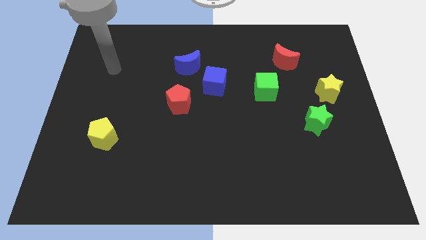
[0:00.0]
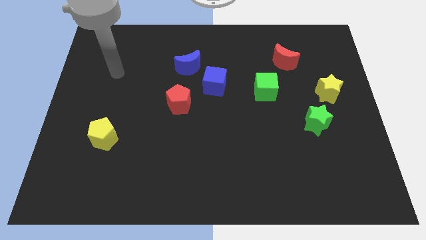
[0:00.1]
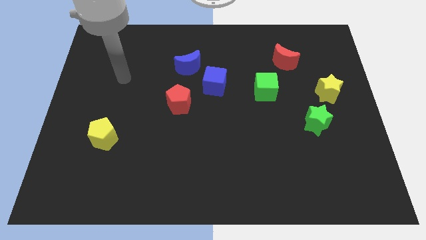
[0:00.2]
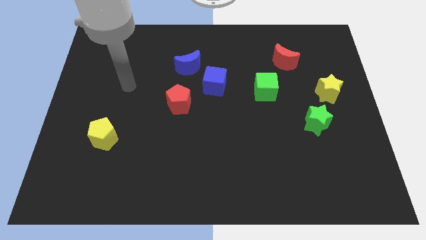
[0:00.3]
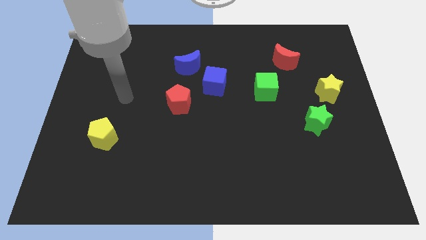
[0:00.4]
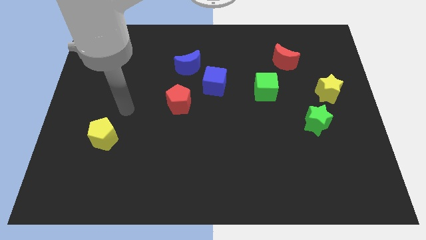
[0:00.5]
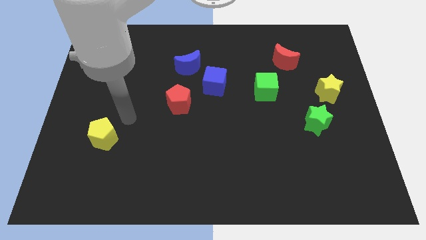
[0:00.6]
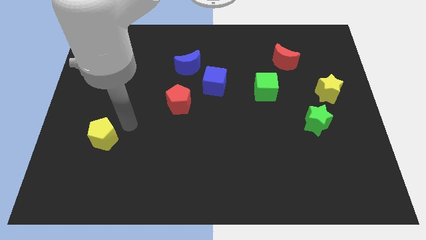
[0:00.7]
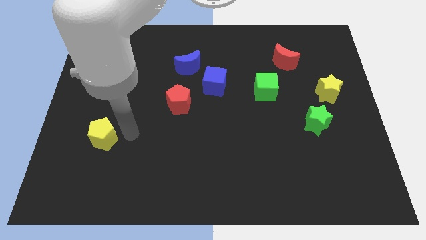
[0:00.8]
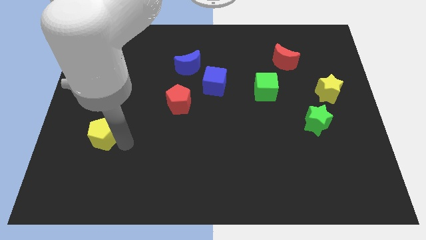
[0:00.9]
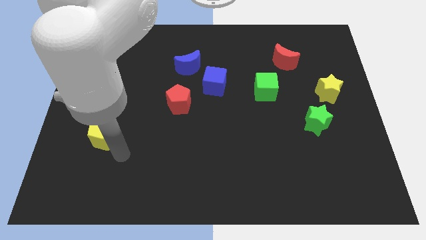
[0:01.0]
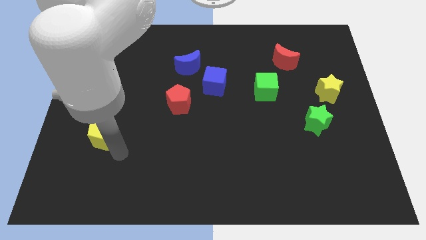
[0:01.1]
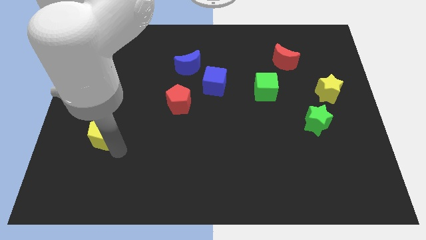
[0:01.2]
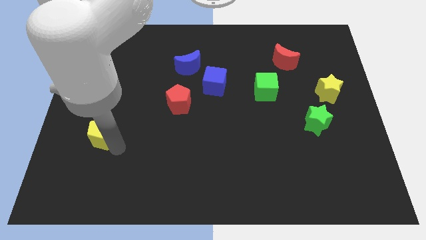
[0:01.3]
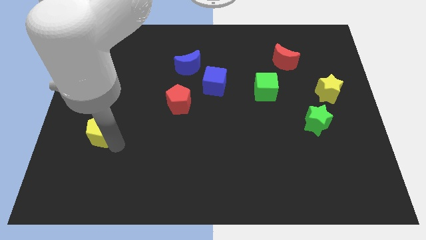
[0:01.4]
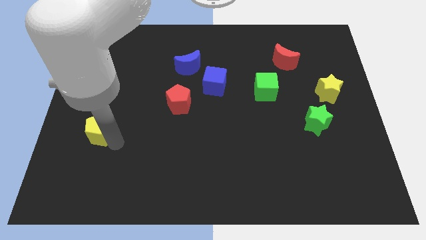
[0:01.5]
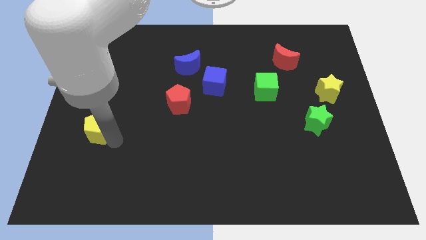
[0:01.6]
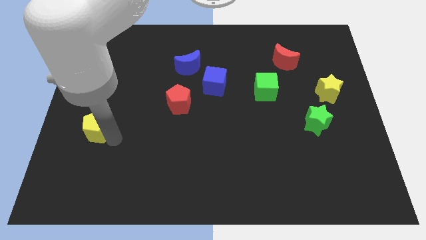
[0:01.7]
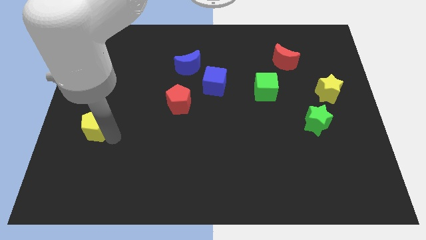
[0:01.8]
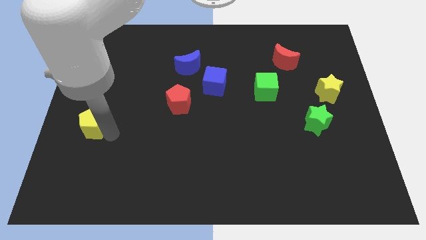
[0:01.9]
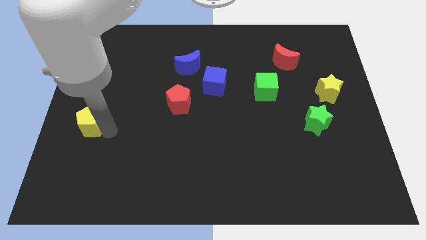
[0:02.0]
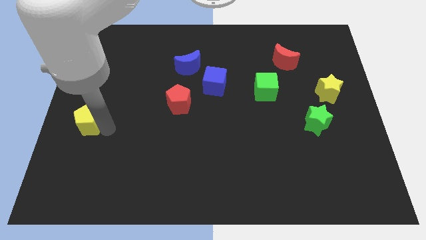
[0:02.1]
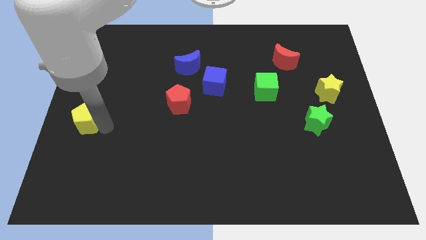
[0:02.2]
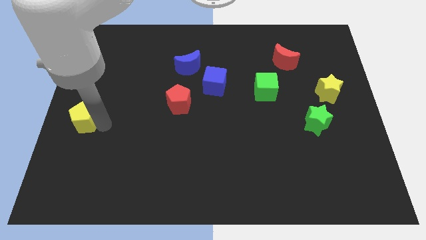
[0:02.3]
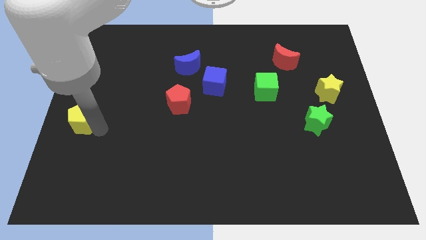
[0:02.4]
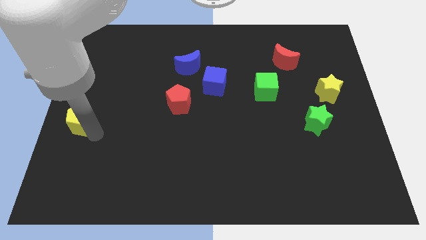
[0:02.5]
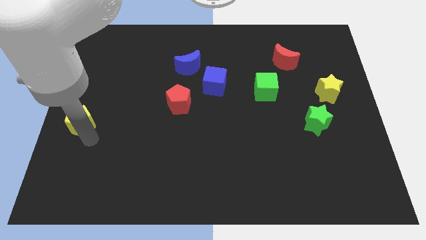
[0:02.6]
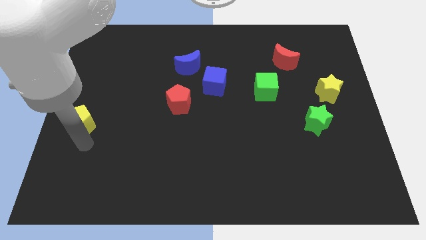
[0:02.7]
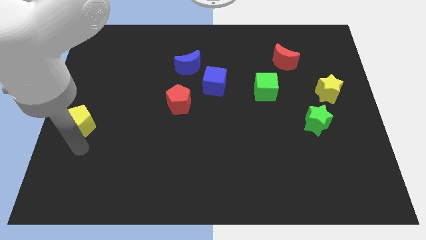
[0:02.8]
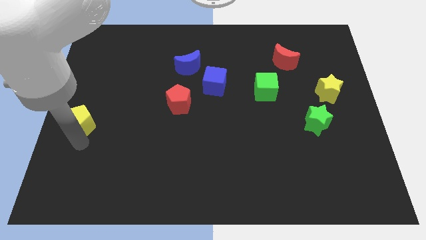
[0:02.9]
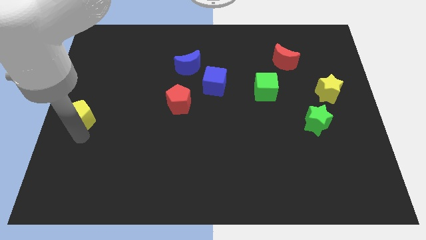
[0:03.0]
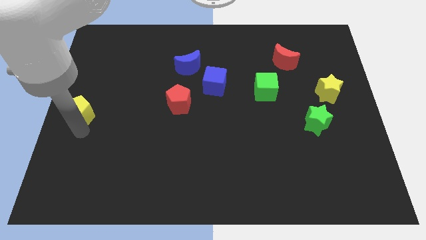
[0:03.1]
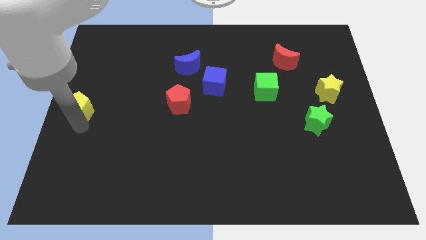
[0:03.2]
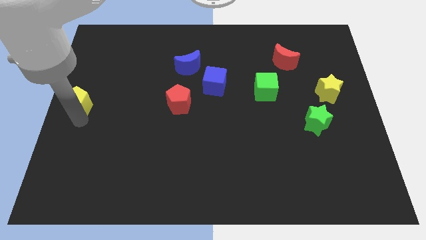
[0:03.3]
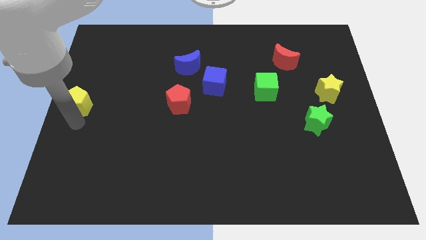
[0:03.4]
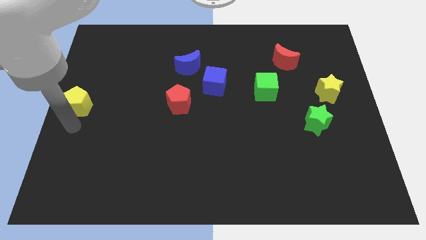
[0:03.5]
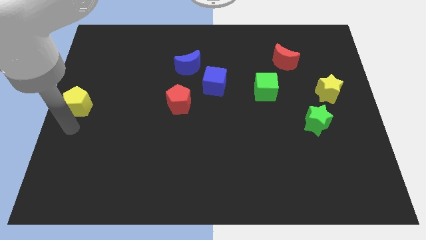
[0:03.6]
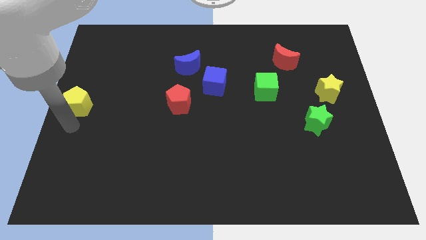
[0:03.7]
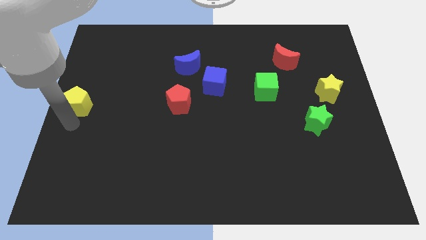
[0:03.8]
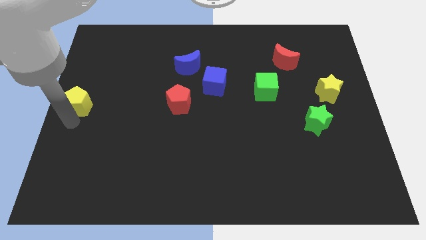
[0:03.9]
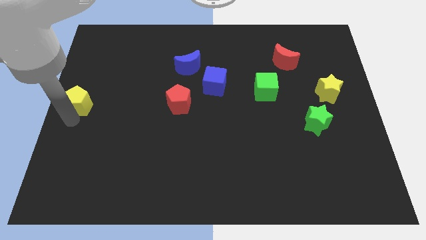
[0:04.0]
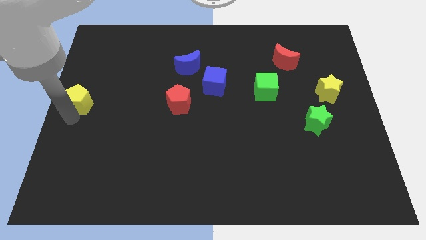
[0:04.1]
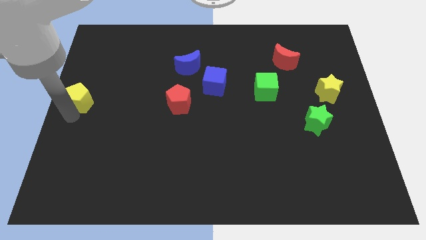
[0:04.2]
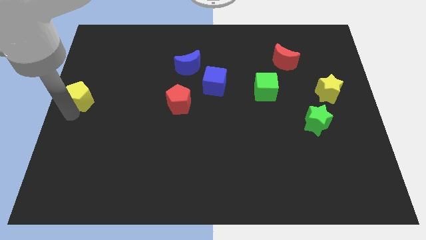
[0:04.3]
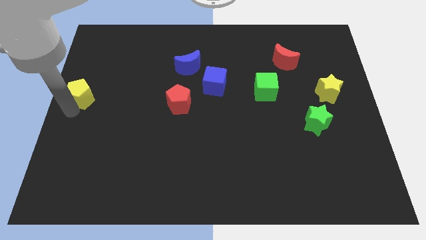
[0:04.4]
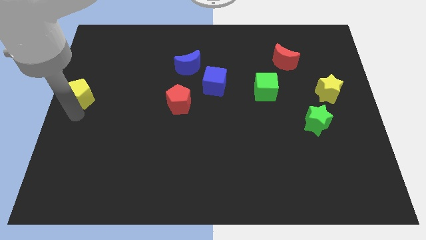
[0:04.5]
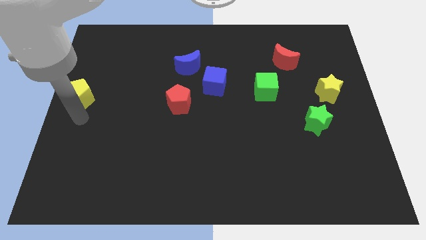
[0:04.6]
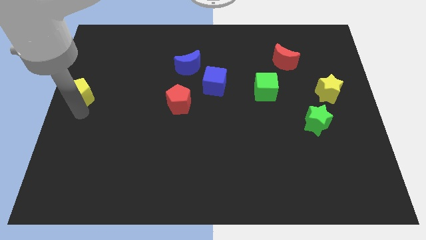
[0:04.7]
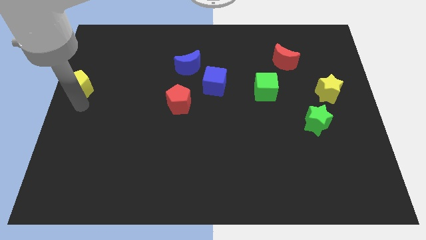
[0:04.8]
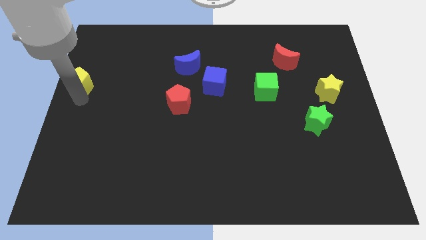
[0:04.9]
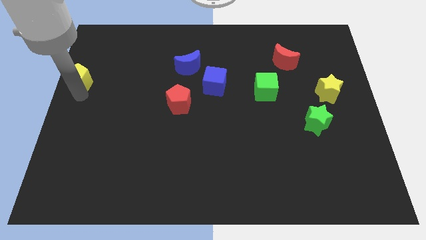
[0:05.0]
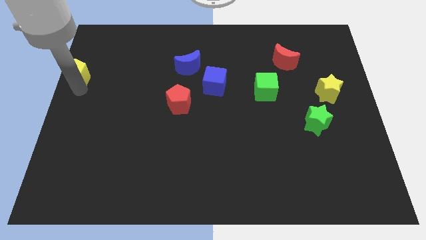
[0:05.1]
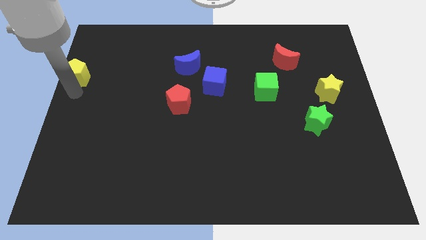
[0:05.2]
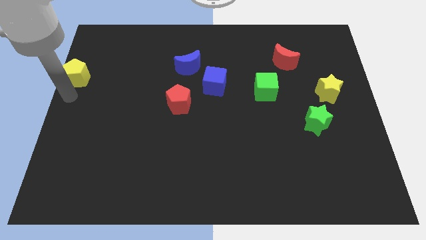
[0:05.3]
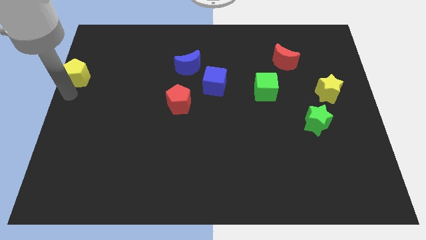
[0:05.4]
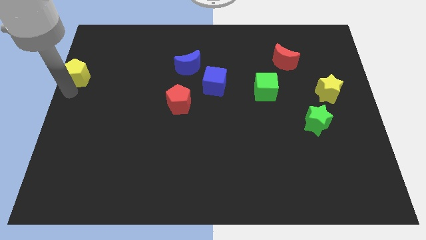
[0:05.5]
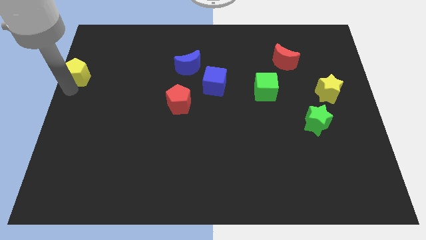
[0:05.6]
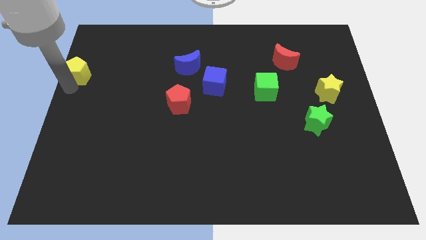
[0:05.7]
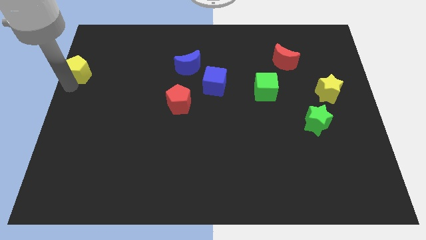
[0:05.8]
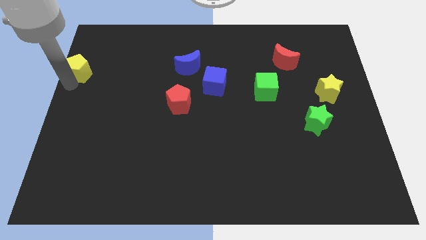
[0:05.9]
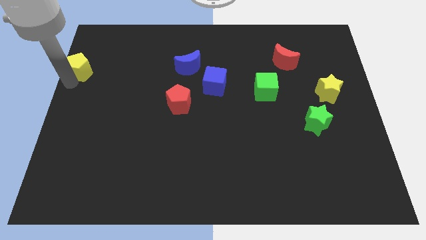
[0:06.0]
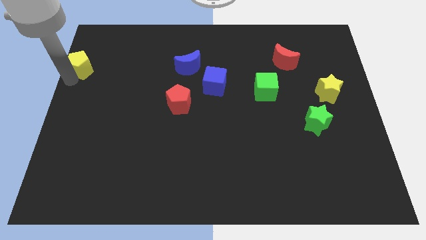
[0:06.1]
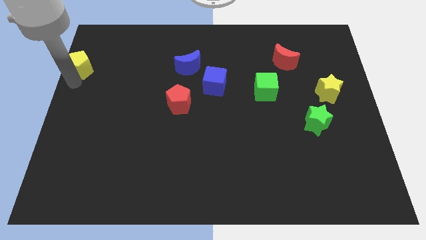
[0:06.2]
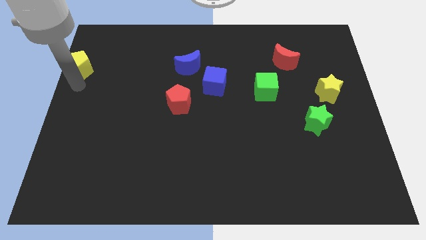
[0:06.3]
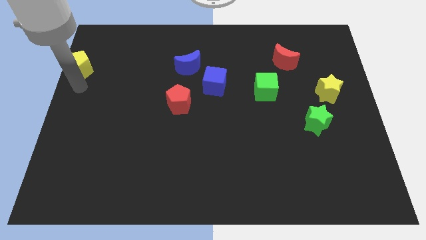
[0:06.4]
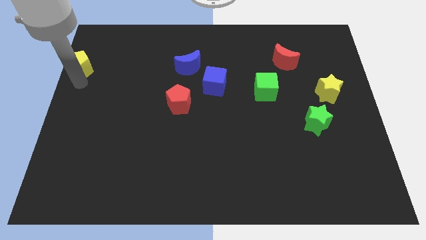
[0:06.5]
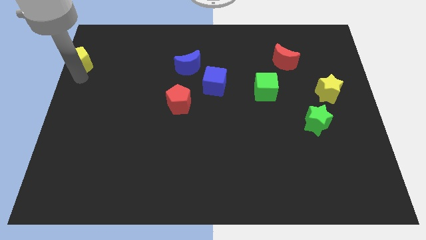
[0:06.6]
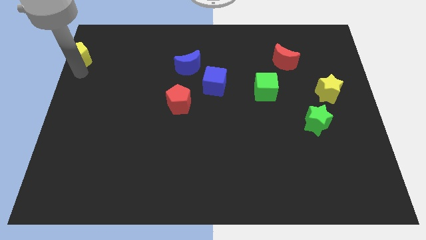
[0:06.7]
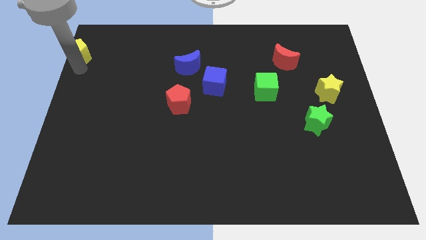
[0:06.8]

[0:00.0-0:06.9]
push the yellow pentagon to the top left corner
